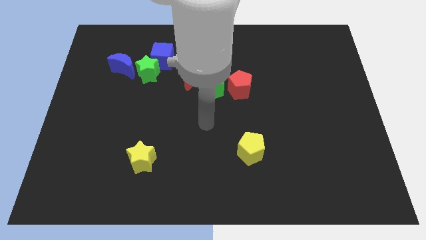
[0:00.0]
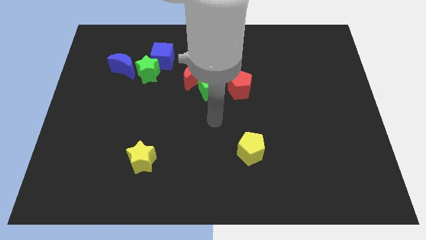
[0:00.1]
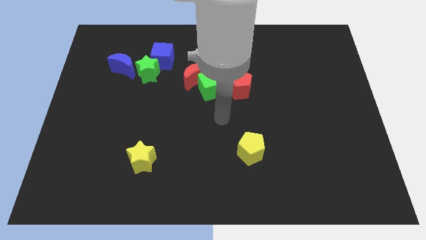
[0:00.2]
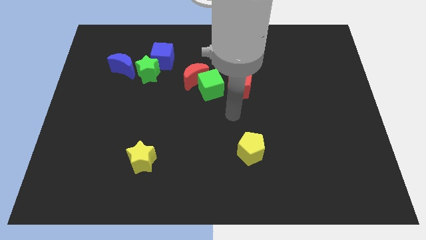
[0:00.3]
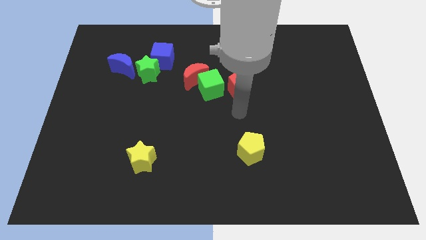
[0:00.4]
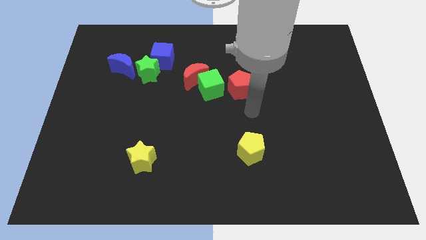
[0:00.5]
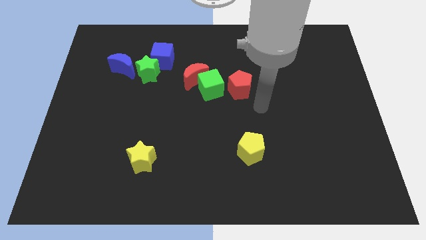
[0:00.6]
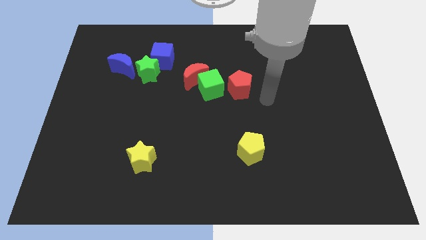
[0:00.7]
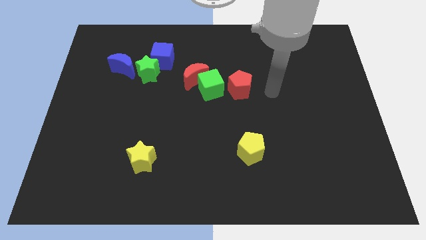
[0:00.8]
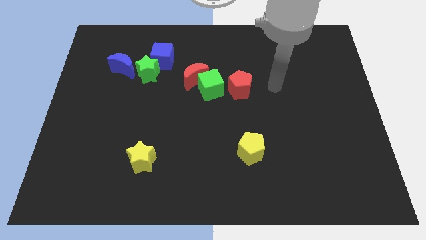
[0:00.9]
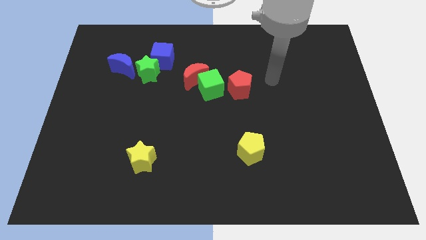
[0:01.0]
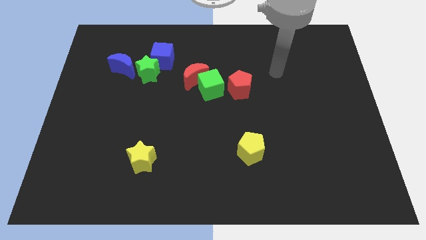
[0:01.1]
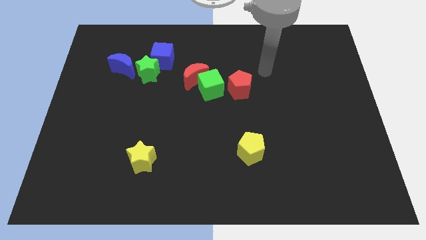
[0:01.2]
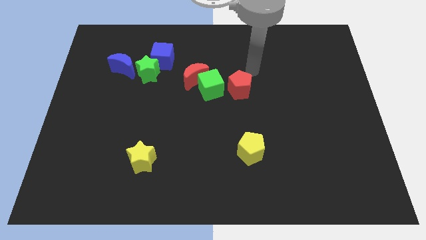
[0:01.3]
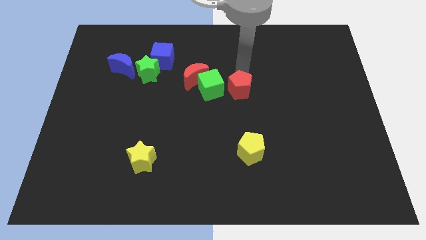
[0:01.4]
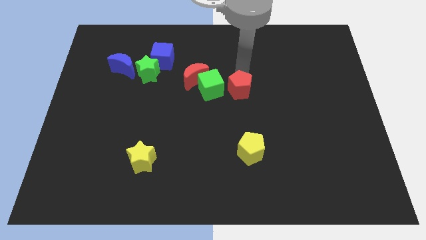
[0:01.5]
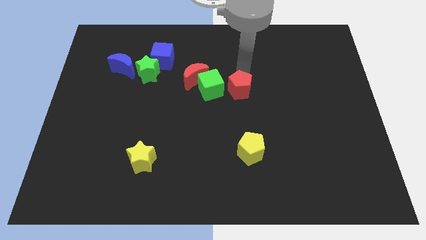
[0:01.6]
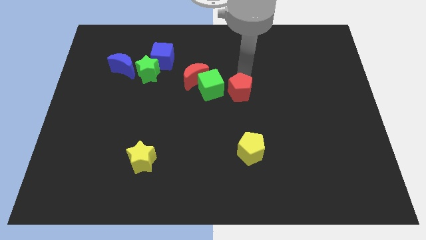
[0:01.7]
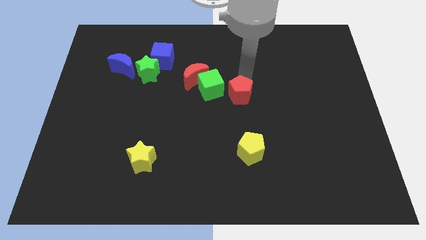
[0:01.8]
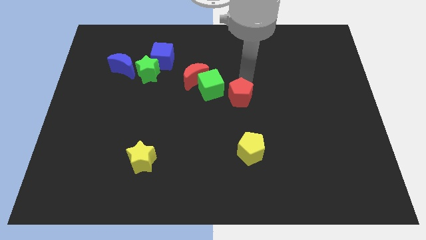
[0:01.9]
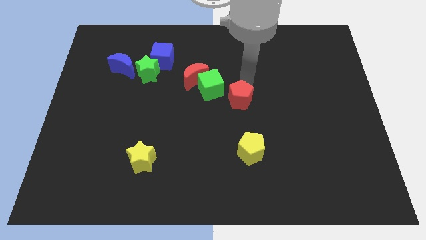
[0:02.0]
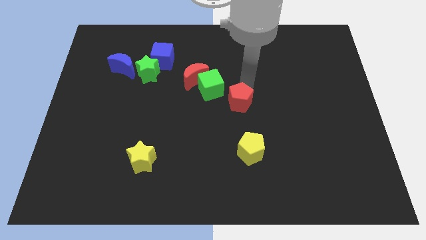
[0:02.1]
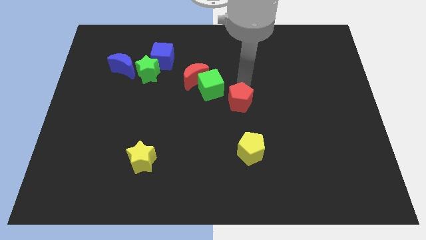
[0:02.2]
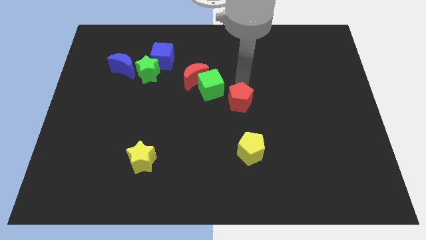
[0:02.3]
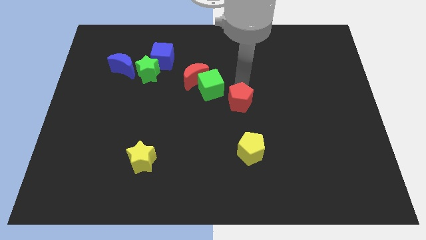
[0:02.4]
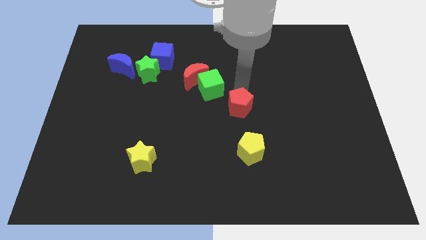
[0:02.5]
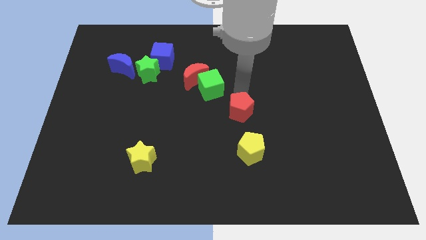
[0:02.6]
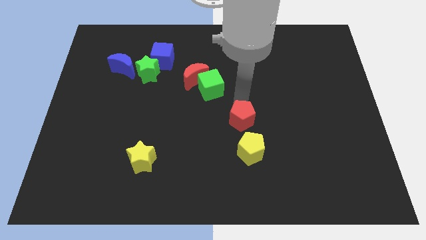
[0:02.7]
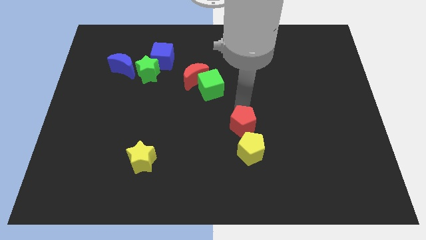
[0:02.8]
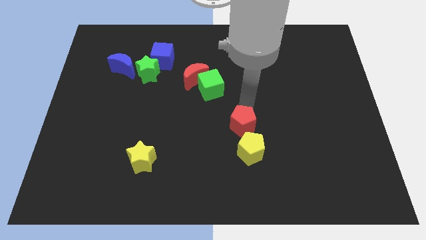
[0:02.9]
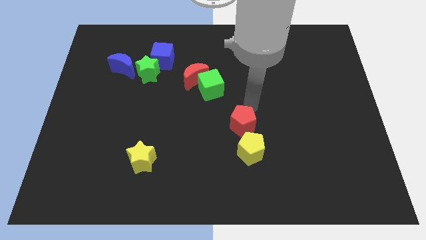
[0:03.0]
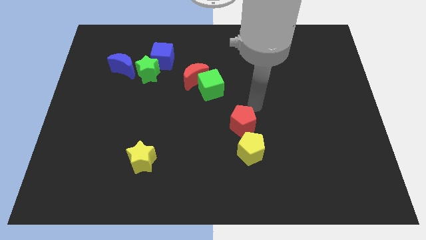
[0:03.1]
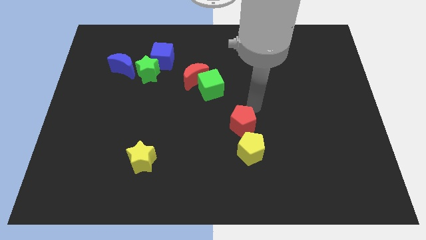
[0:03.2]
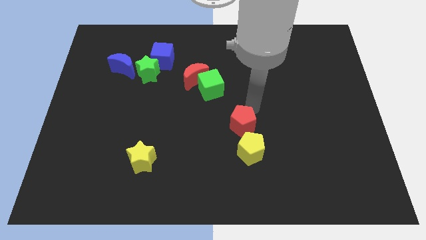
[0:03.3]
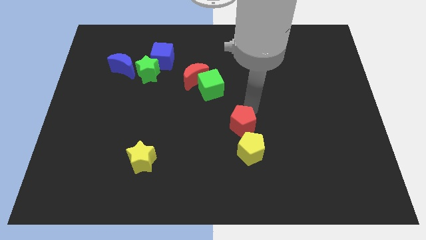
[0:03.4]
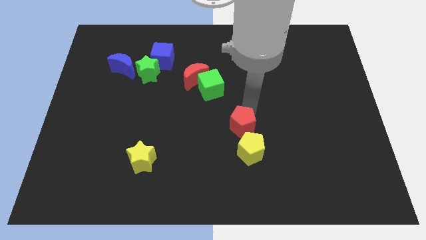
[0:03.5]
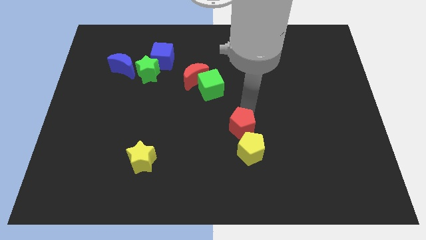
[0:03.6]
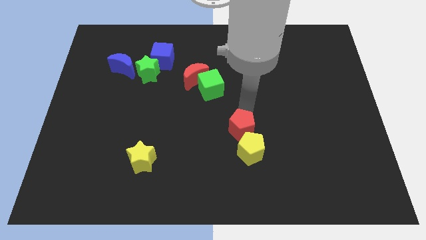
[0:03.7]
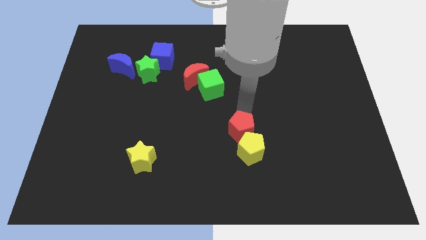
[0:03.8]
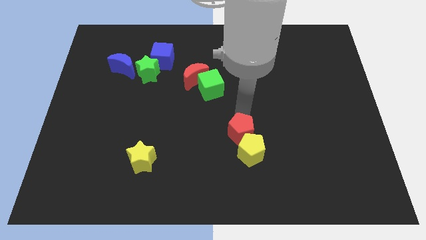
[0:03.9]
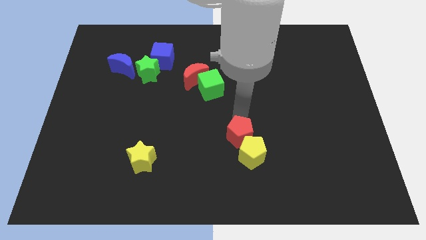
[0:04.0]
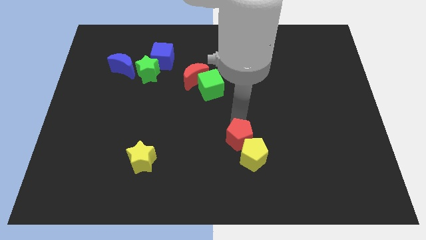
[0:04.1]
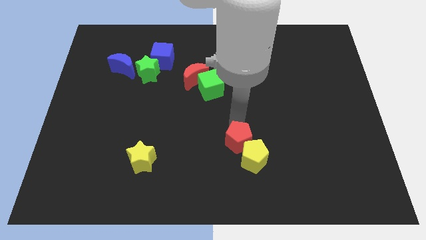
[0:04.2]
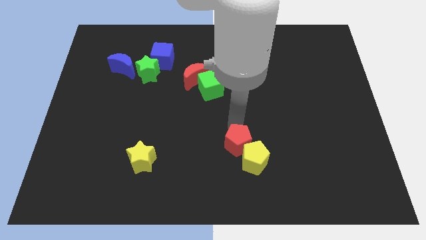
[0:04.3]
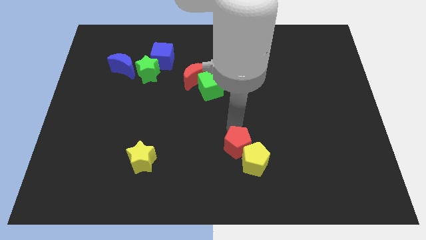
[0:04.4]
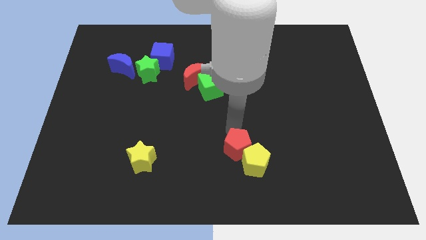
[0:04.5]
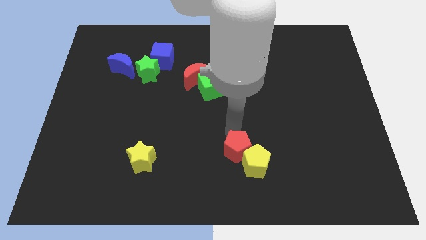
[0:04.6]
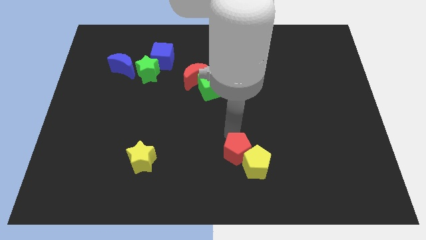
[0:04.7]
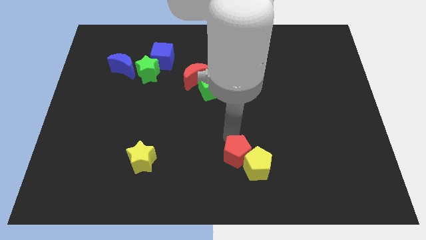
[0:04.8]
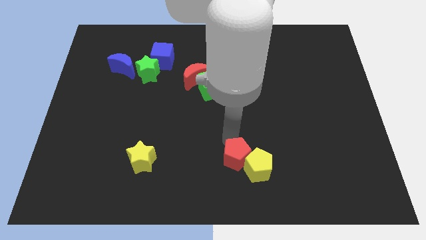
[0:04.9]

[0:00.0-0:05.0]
move the red pentagon to the bottom

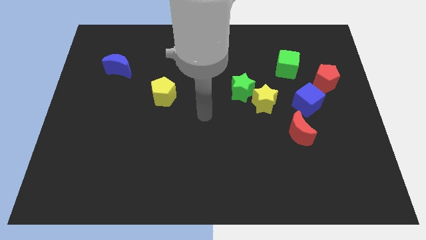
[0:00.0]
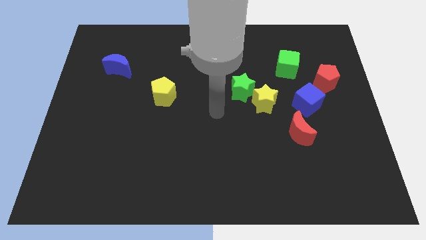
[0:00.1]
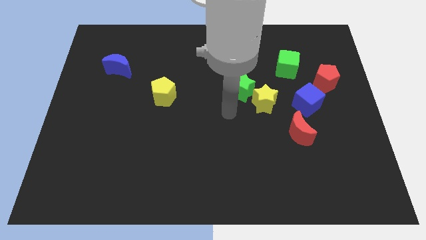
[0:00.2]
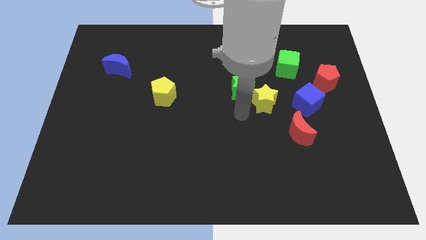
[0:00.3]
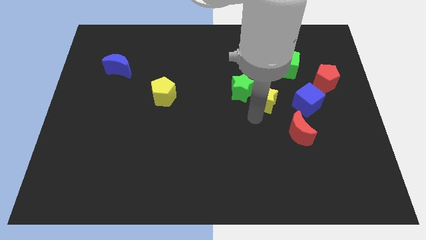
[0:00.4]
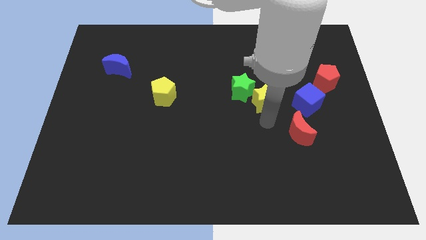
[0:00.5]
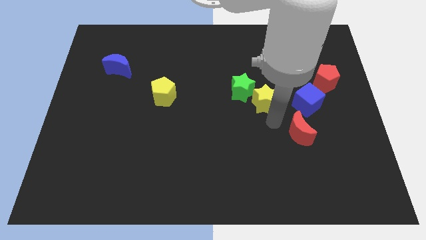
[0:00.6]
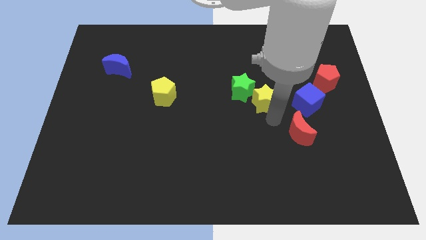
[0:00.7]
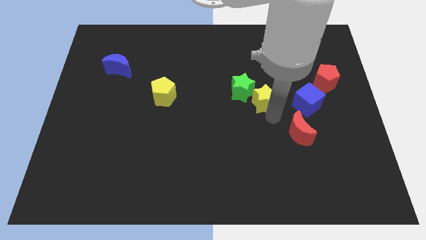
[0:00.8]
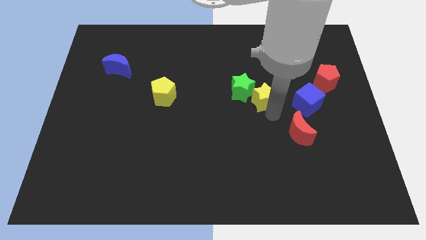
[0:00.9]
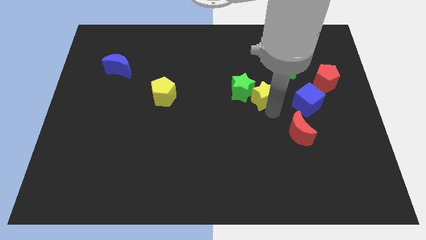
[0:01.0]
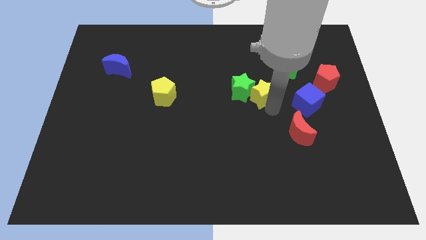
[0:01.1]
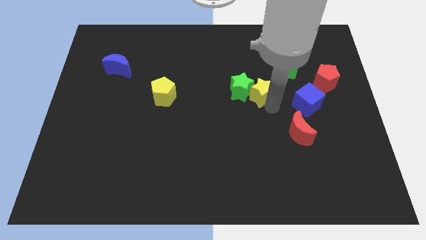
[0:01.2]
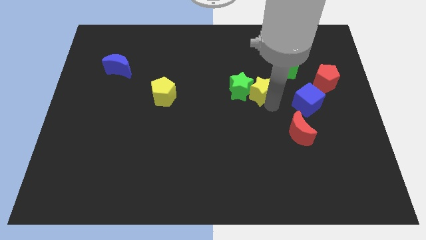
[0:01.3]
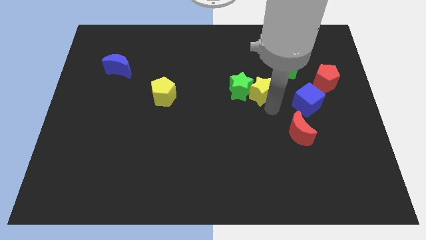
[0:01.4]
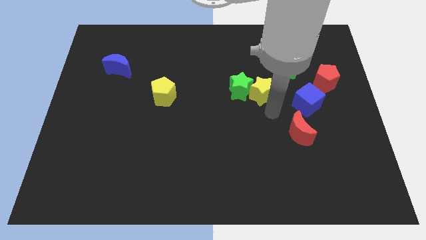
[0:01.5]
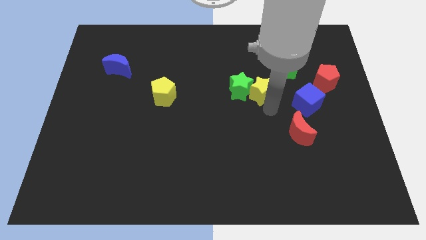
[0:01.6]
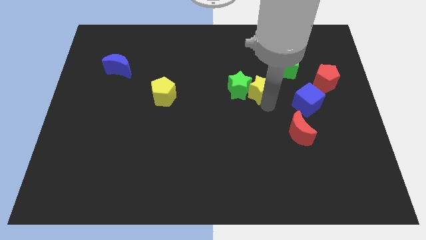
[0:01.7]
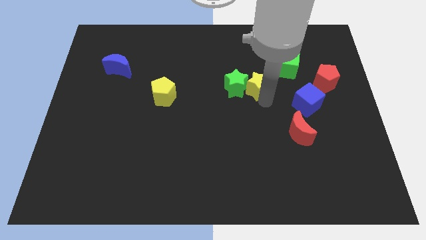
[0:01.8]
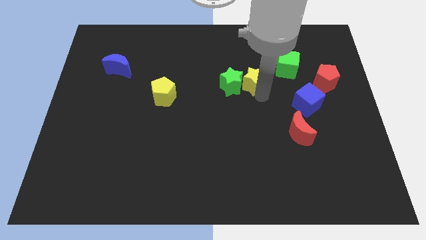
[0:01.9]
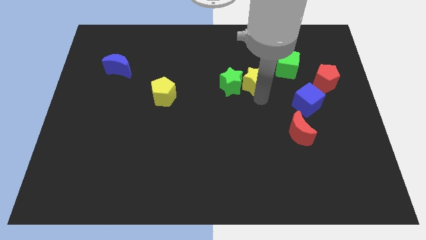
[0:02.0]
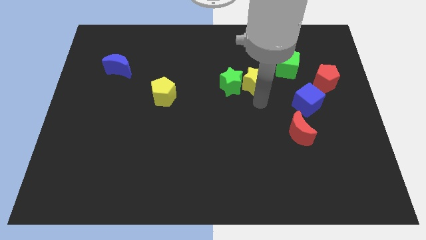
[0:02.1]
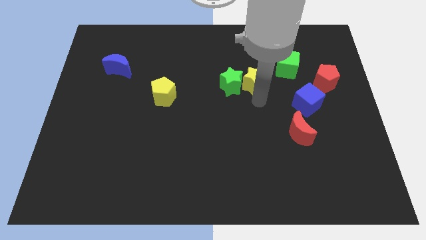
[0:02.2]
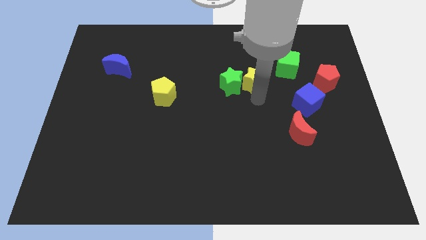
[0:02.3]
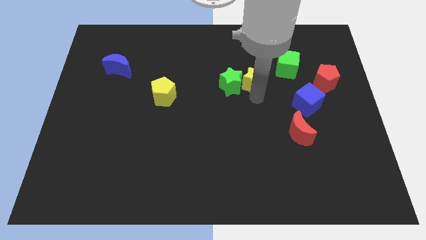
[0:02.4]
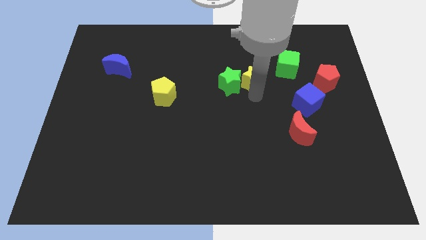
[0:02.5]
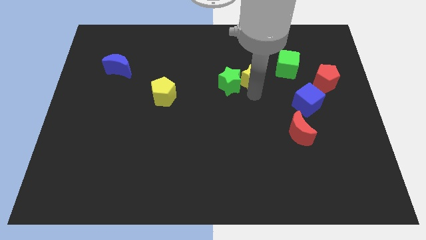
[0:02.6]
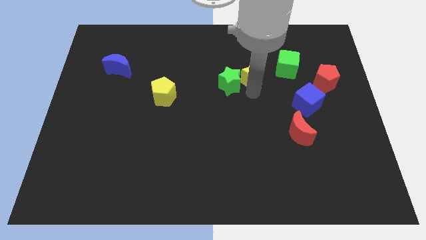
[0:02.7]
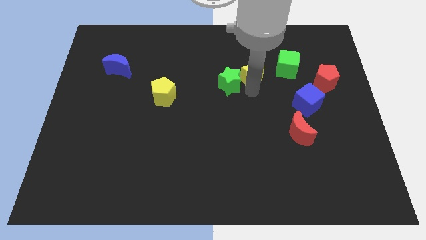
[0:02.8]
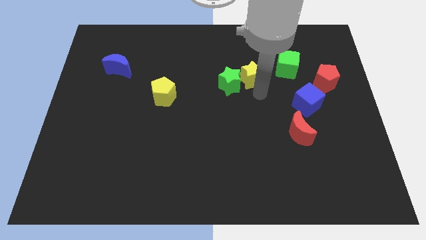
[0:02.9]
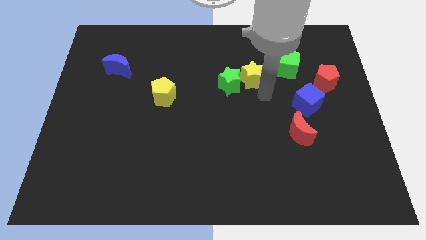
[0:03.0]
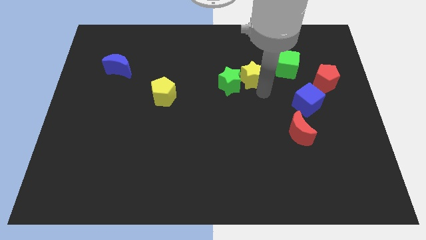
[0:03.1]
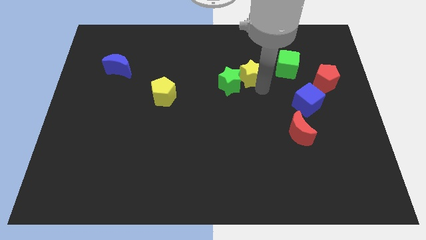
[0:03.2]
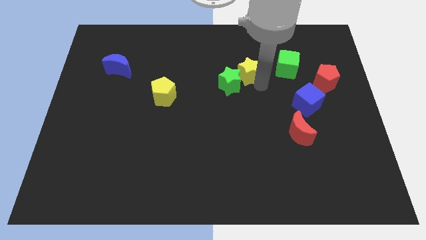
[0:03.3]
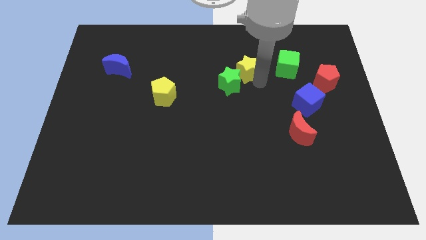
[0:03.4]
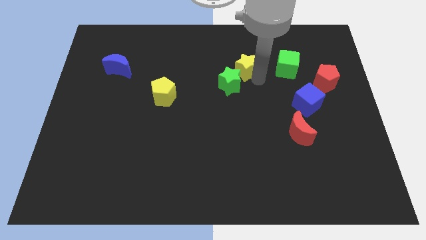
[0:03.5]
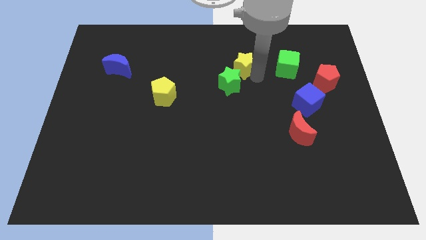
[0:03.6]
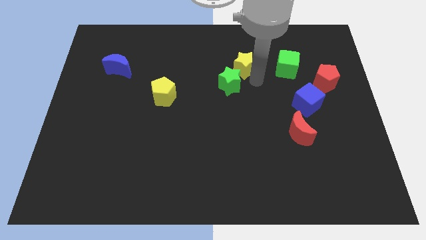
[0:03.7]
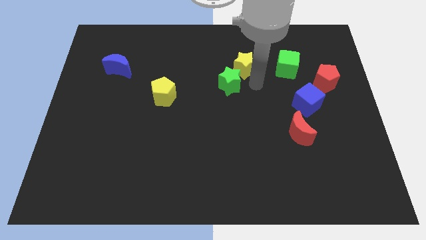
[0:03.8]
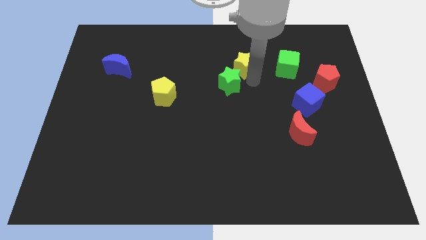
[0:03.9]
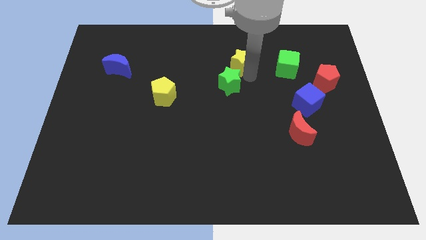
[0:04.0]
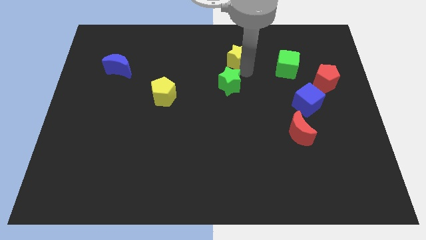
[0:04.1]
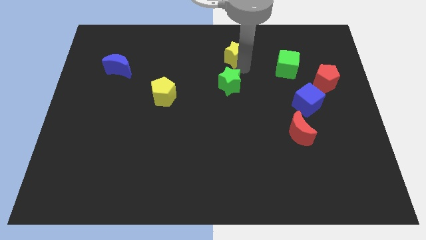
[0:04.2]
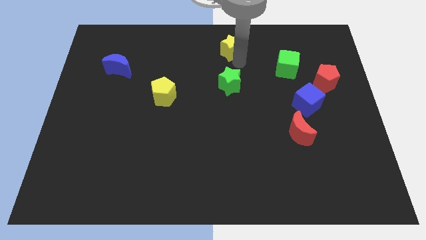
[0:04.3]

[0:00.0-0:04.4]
move the yellow star to the top side
